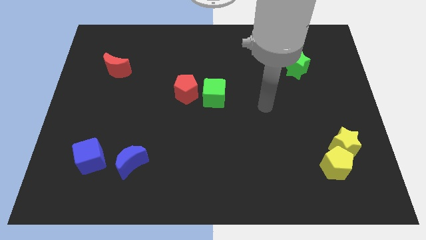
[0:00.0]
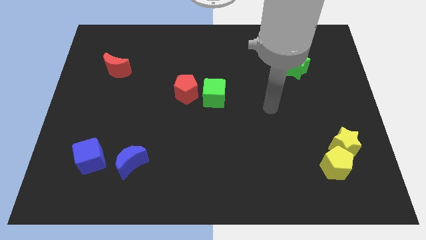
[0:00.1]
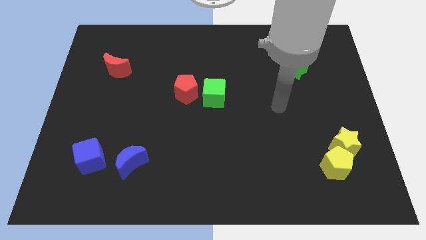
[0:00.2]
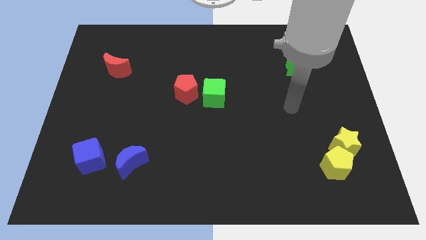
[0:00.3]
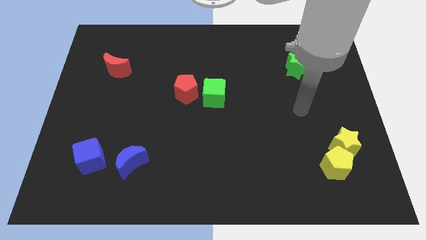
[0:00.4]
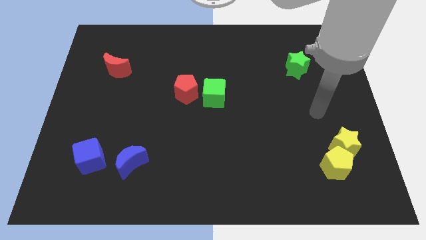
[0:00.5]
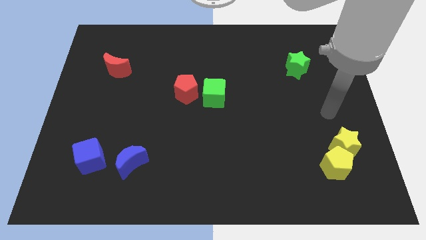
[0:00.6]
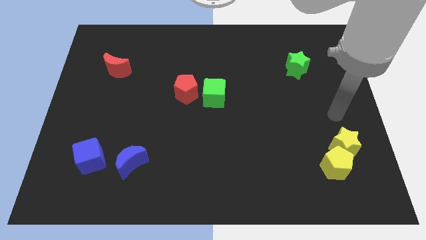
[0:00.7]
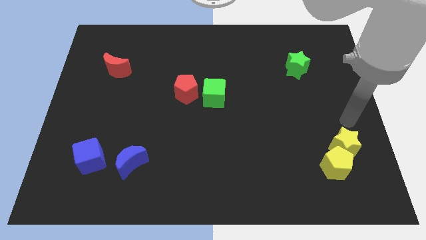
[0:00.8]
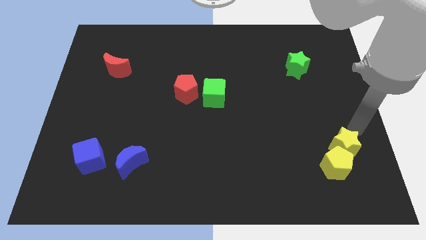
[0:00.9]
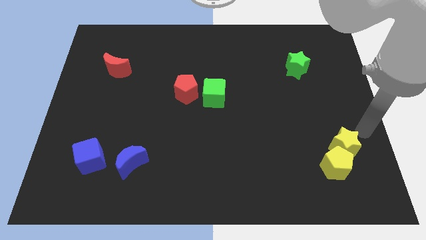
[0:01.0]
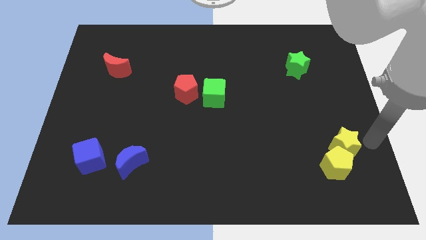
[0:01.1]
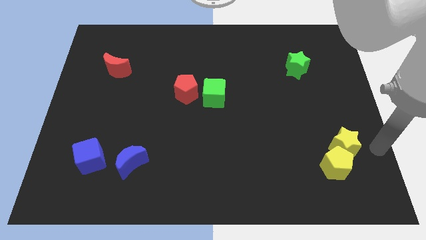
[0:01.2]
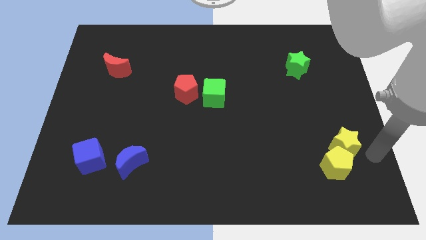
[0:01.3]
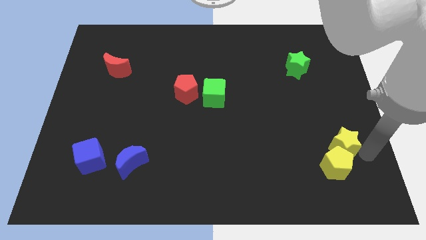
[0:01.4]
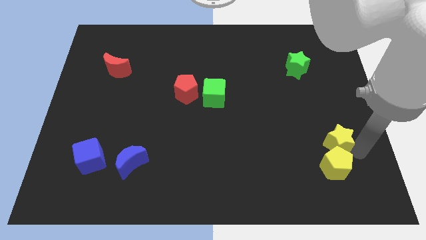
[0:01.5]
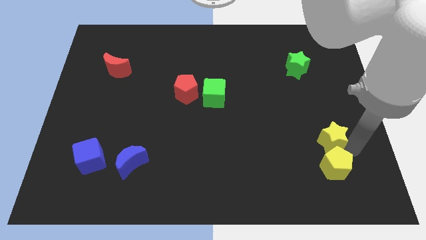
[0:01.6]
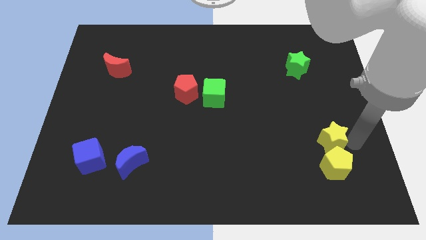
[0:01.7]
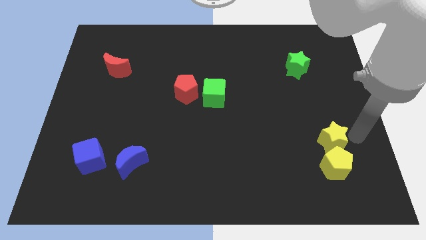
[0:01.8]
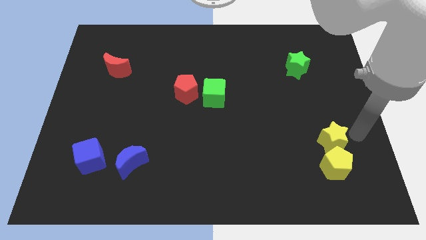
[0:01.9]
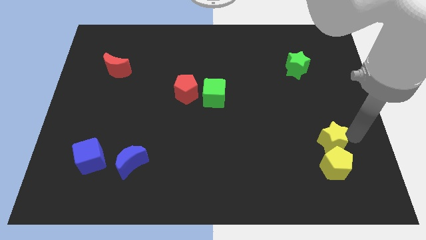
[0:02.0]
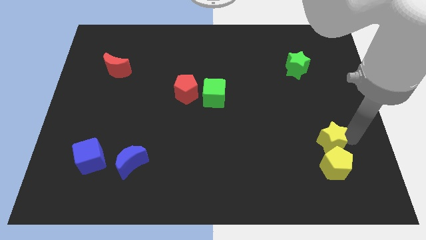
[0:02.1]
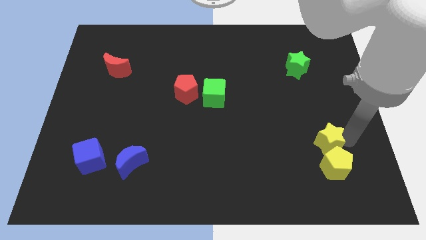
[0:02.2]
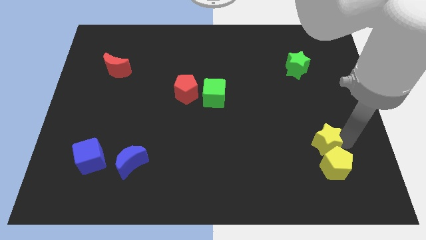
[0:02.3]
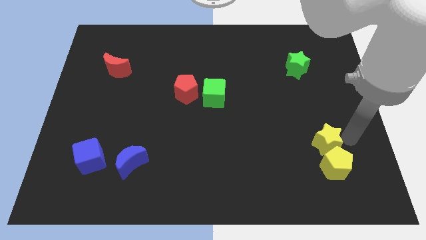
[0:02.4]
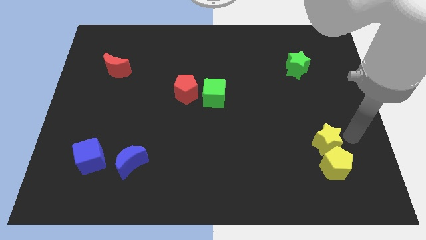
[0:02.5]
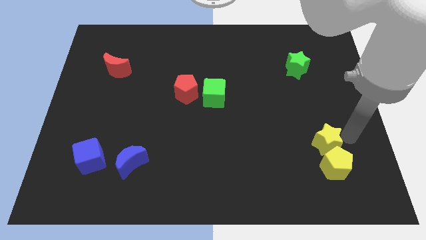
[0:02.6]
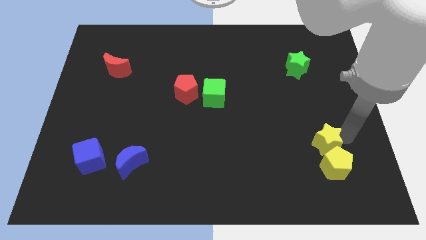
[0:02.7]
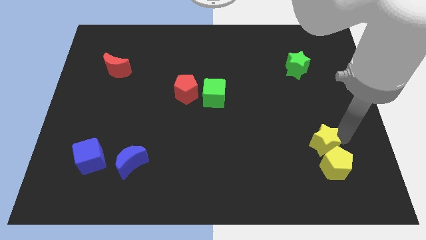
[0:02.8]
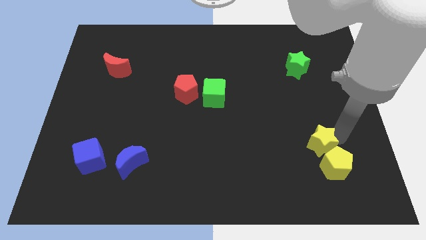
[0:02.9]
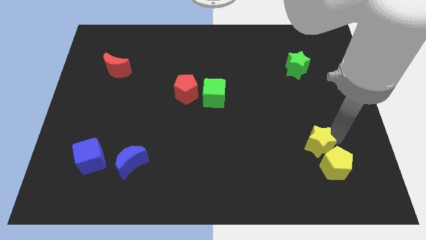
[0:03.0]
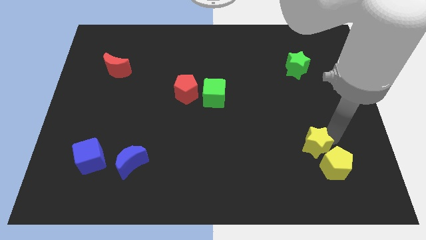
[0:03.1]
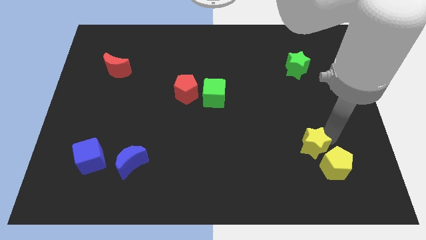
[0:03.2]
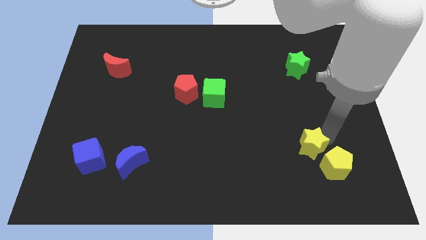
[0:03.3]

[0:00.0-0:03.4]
slide the yellow star somewhat to the left

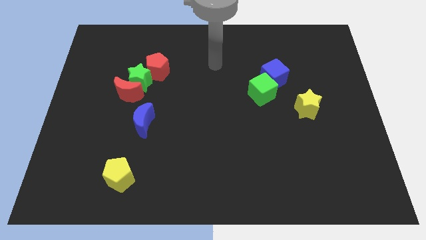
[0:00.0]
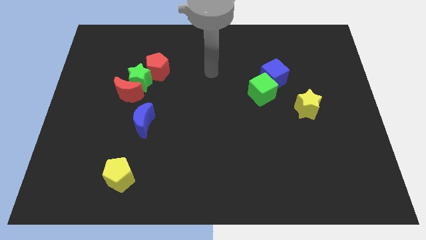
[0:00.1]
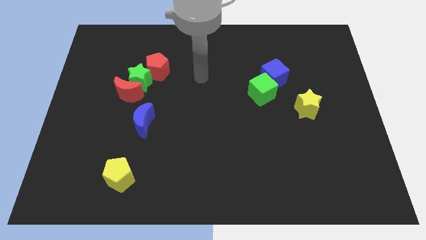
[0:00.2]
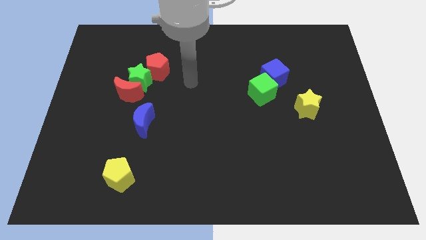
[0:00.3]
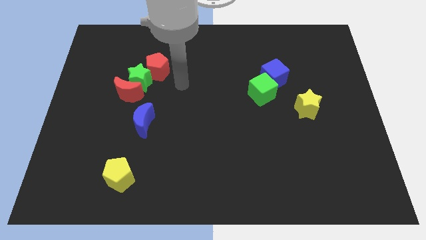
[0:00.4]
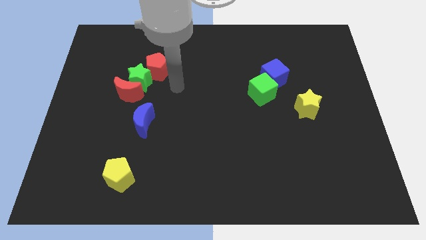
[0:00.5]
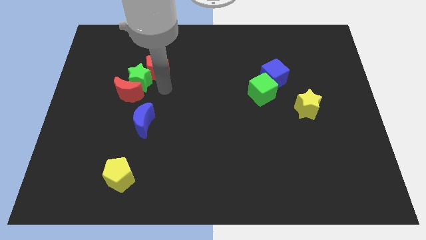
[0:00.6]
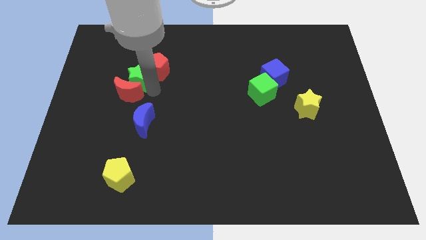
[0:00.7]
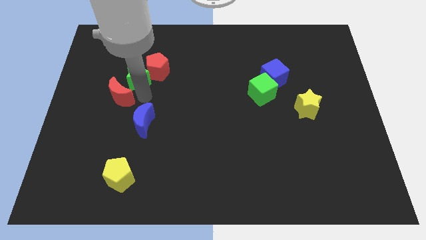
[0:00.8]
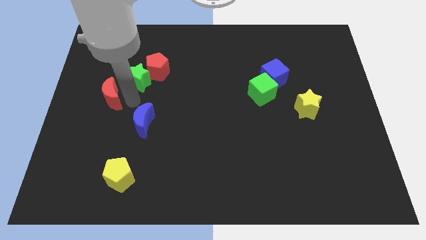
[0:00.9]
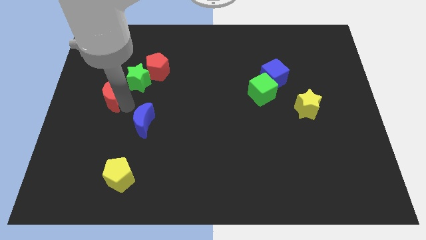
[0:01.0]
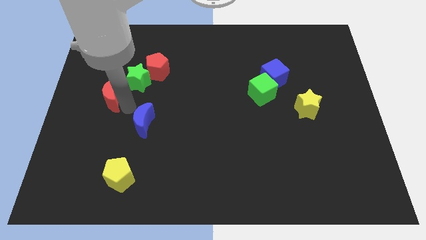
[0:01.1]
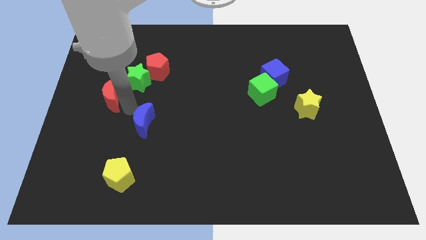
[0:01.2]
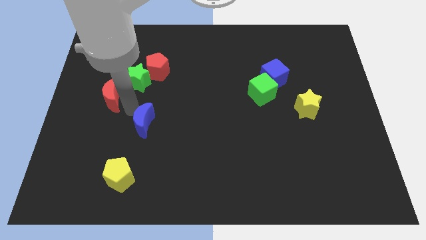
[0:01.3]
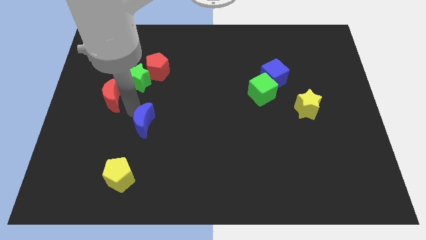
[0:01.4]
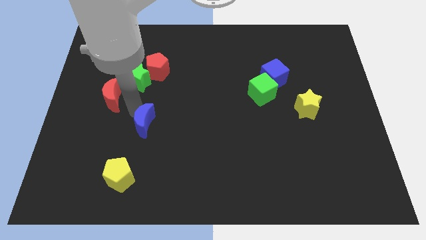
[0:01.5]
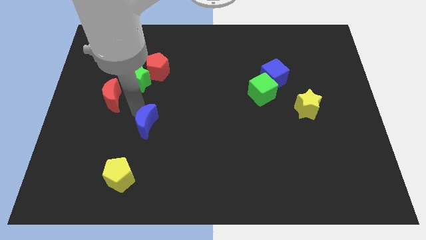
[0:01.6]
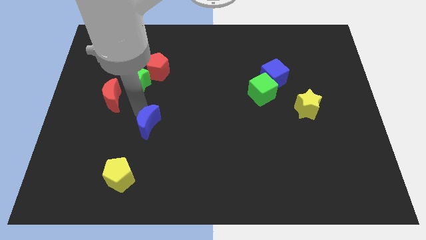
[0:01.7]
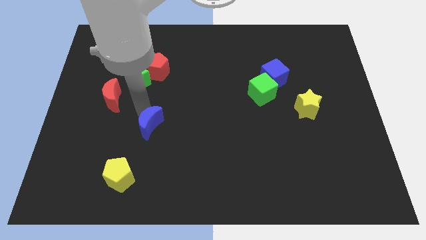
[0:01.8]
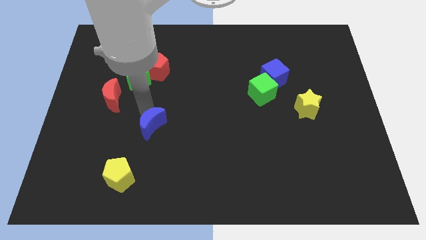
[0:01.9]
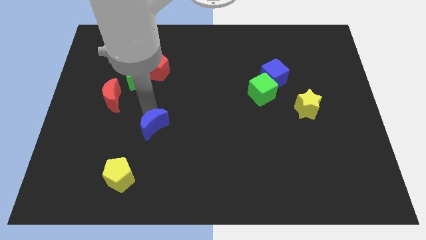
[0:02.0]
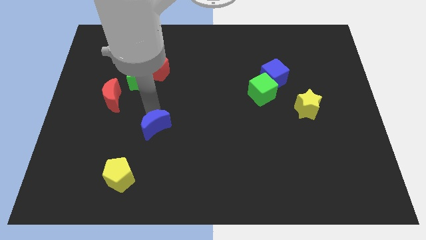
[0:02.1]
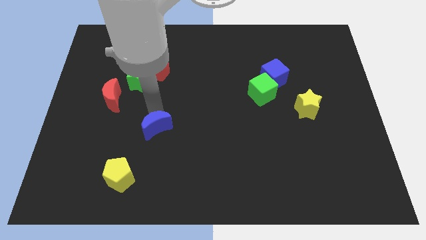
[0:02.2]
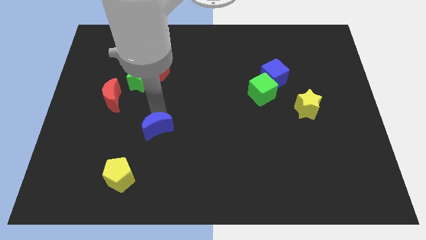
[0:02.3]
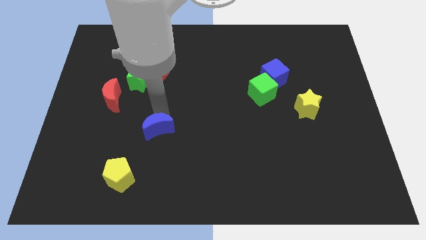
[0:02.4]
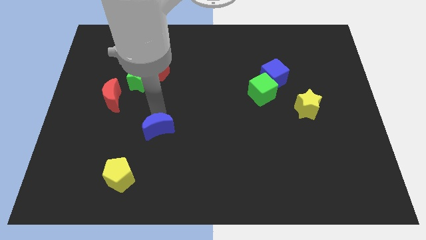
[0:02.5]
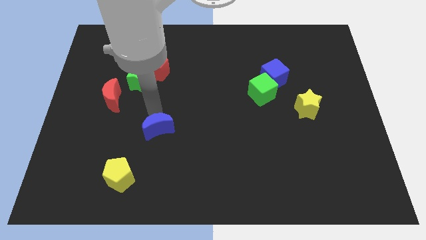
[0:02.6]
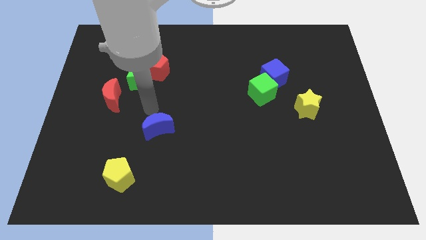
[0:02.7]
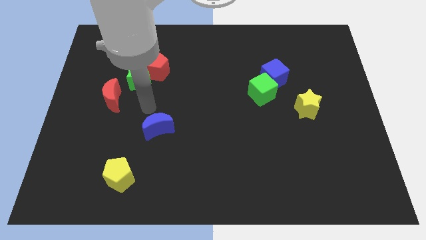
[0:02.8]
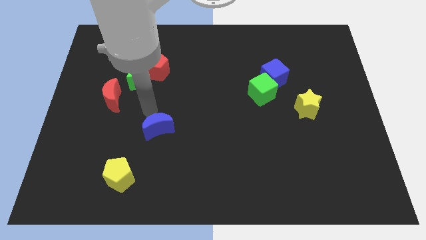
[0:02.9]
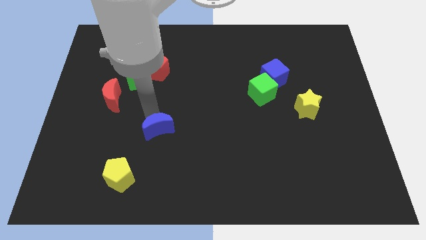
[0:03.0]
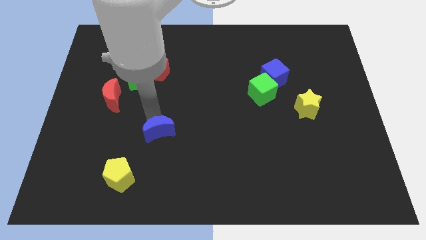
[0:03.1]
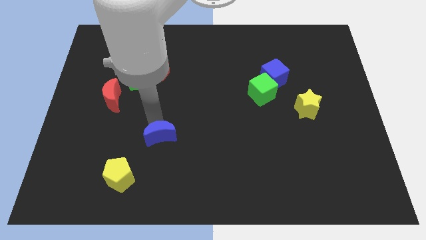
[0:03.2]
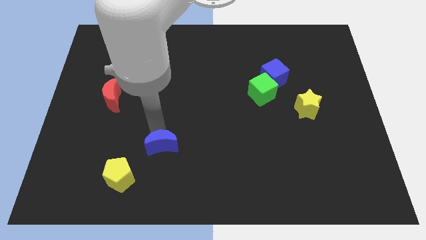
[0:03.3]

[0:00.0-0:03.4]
move the blue moon somewhat diagonally down and right

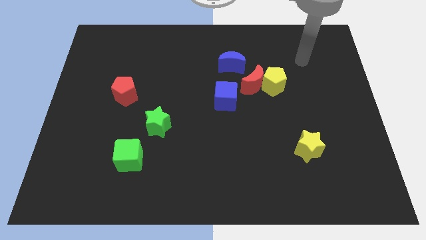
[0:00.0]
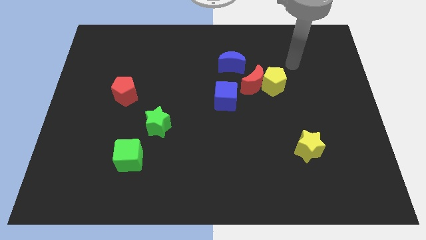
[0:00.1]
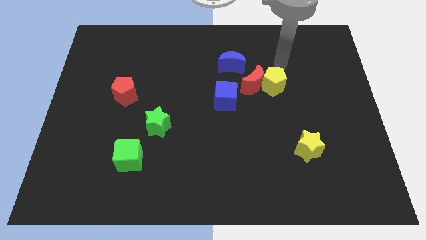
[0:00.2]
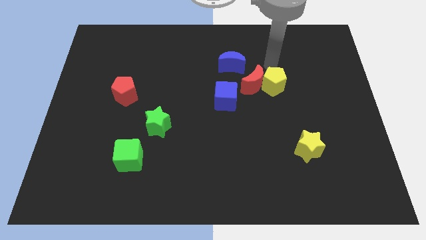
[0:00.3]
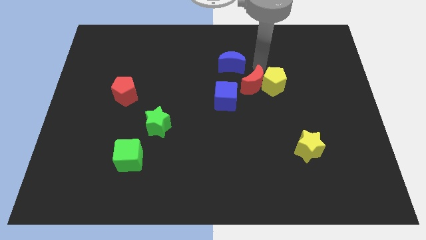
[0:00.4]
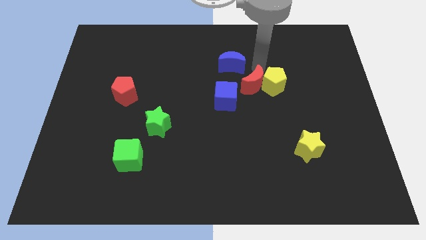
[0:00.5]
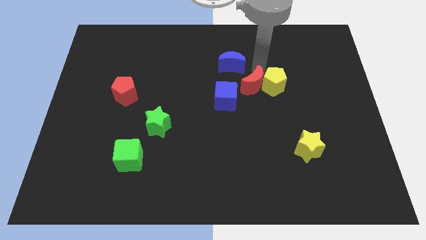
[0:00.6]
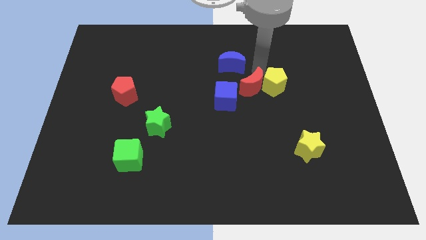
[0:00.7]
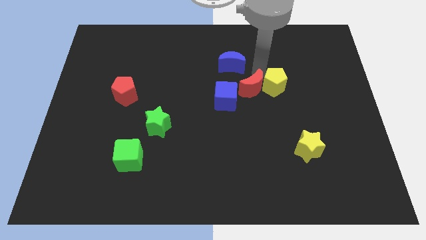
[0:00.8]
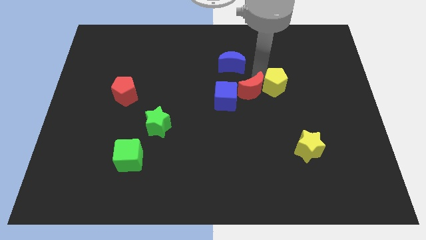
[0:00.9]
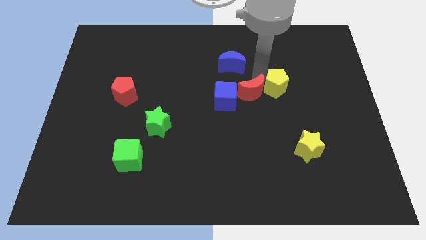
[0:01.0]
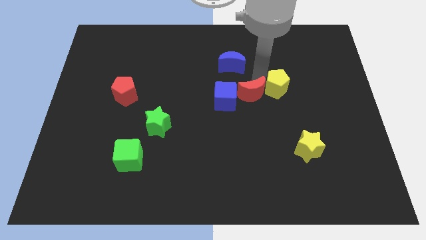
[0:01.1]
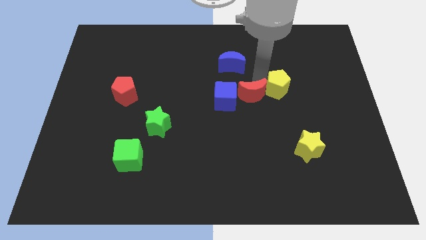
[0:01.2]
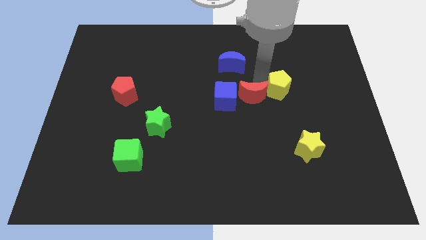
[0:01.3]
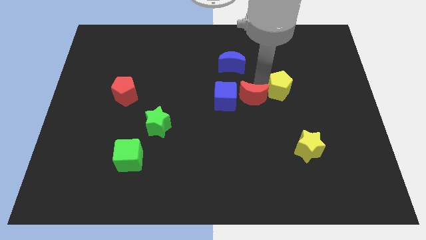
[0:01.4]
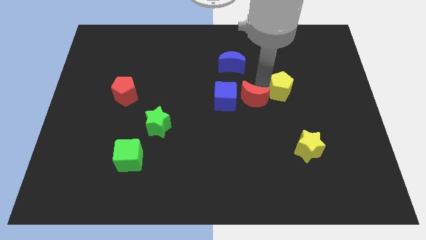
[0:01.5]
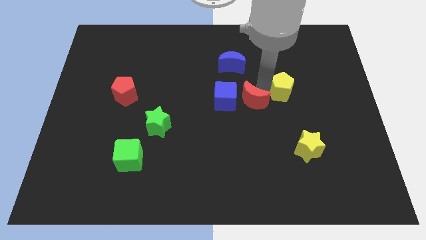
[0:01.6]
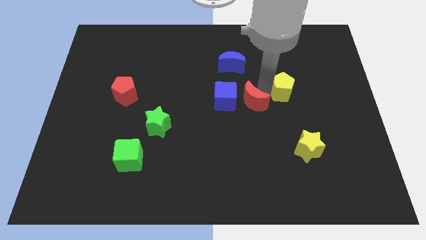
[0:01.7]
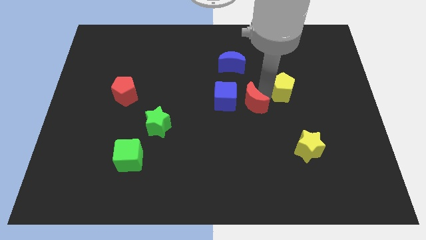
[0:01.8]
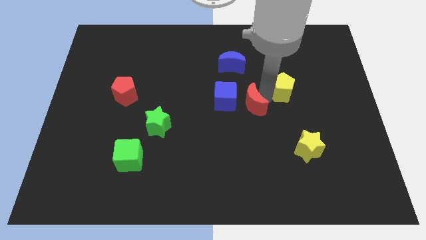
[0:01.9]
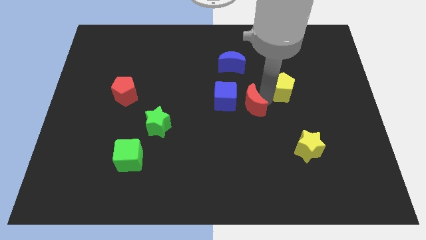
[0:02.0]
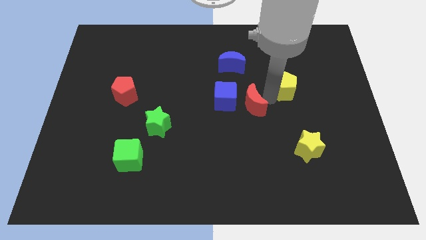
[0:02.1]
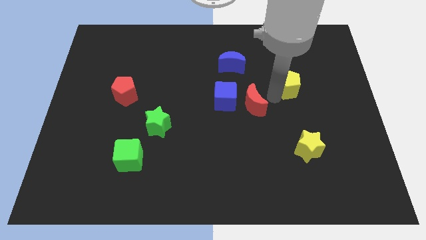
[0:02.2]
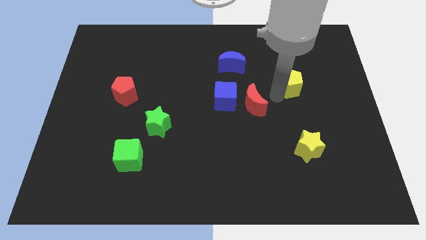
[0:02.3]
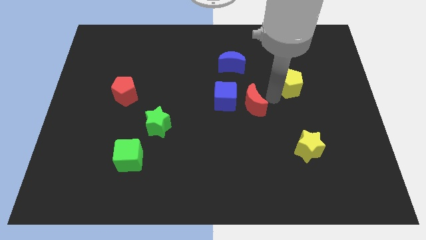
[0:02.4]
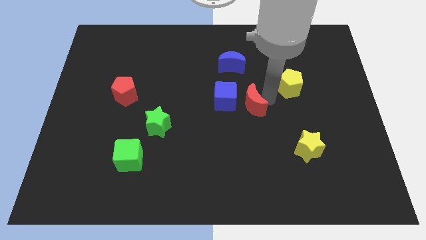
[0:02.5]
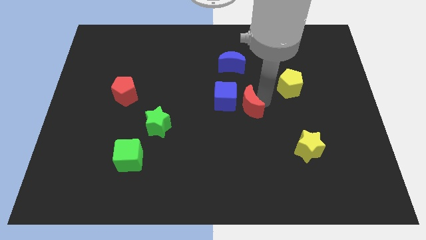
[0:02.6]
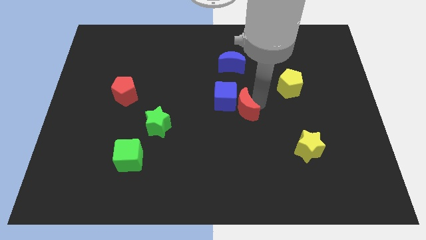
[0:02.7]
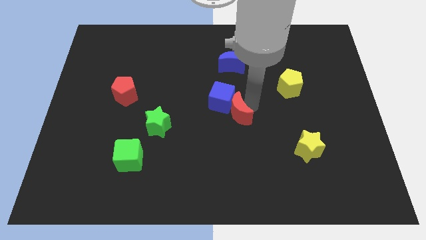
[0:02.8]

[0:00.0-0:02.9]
slightly slide the red moon downwards and to the left diagonally
